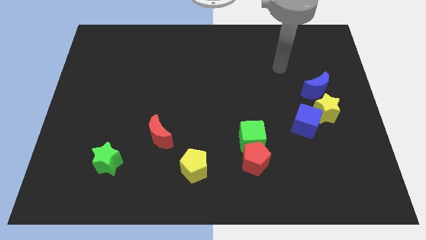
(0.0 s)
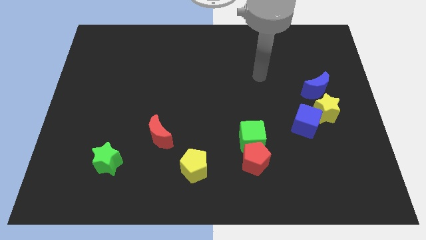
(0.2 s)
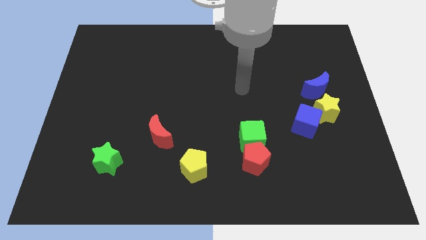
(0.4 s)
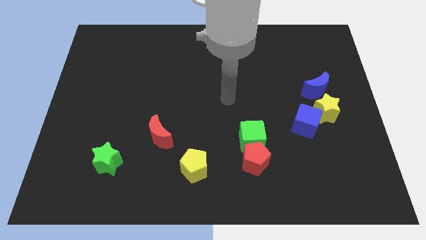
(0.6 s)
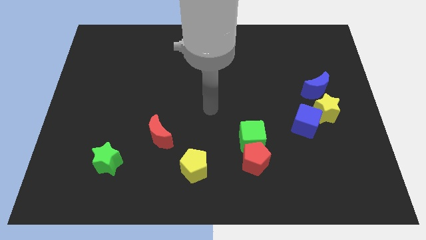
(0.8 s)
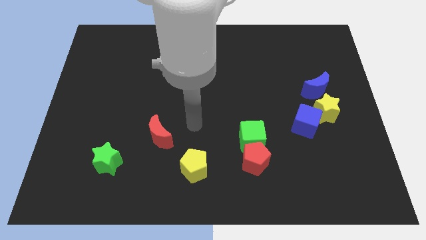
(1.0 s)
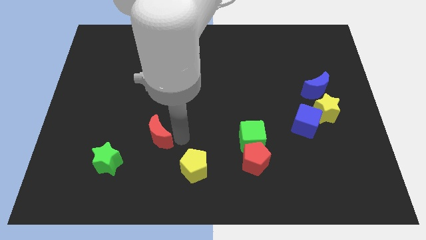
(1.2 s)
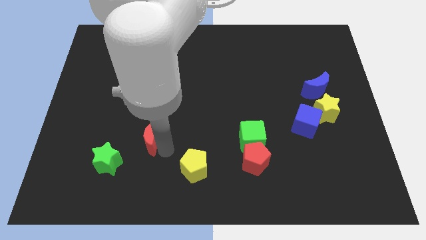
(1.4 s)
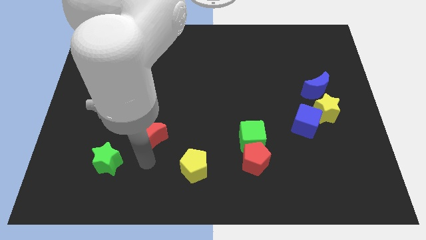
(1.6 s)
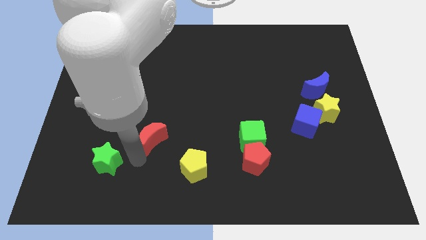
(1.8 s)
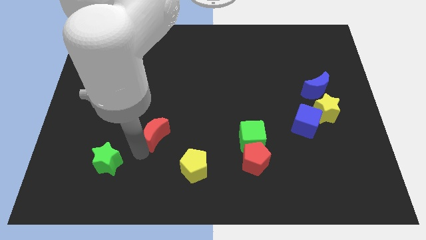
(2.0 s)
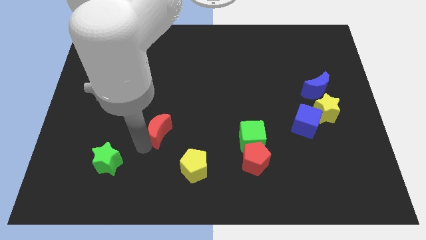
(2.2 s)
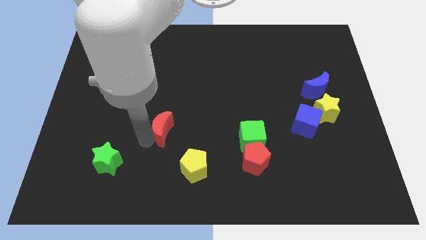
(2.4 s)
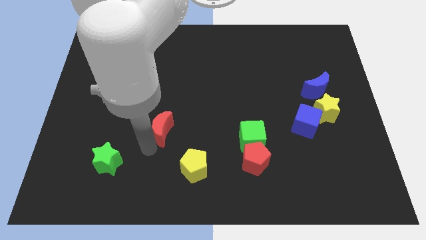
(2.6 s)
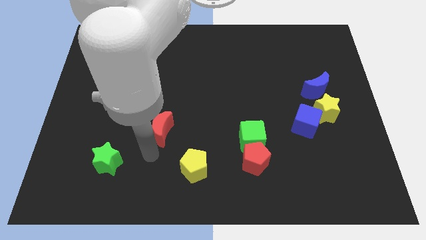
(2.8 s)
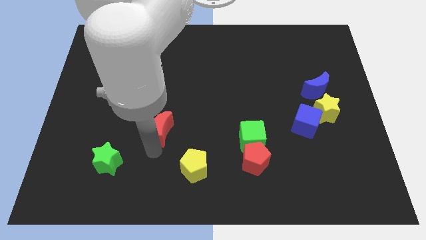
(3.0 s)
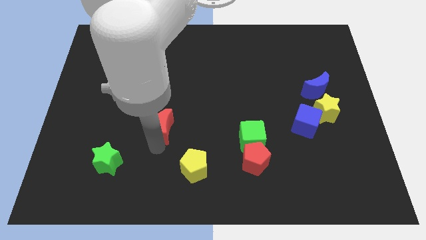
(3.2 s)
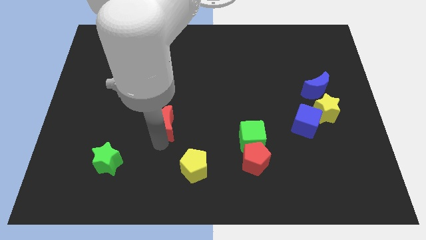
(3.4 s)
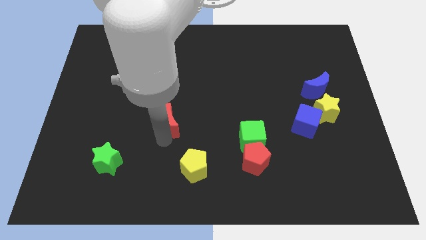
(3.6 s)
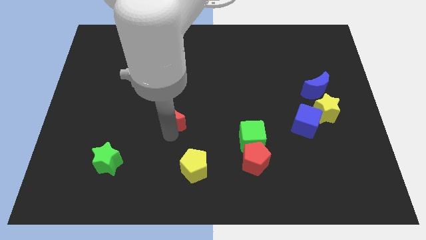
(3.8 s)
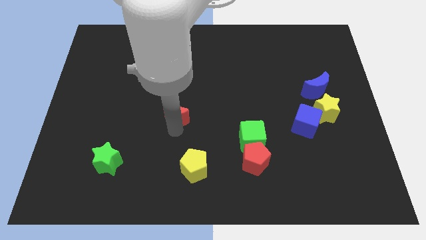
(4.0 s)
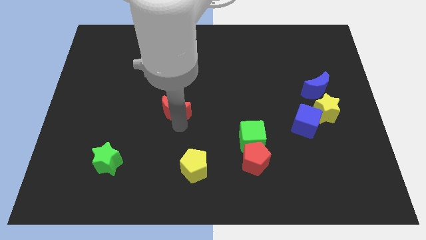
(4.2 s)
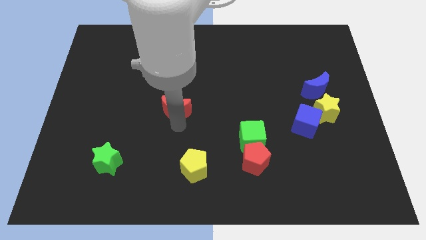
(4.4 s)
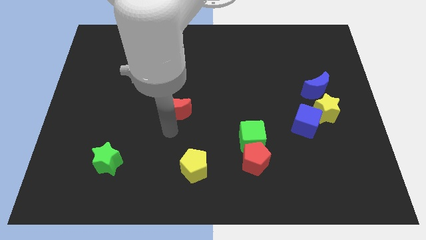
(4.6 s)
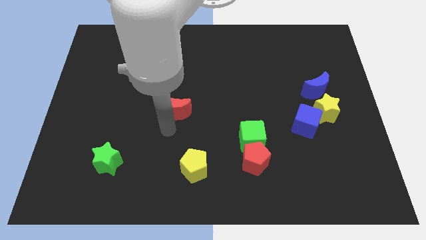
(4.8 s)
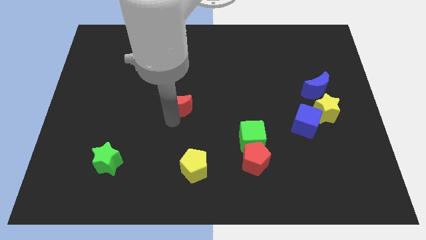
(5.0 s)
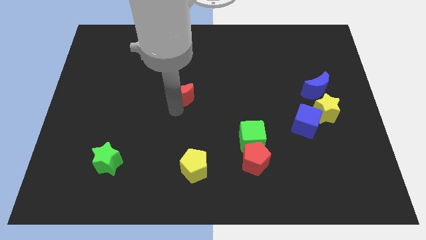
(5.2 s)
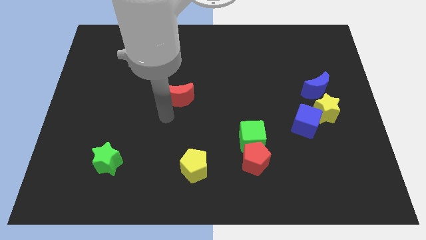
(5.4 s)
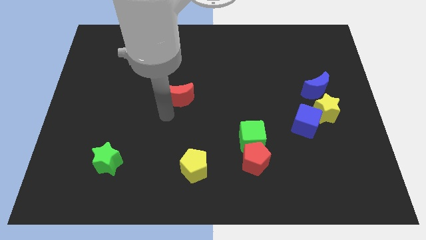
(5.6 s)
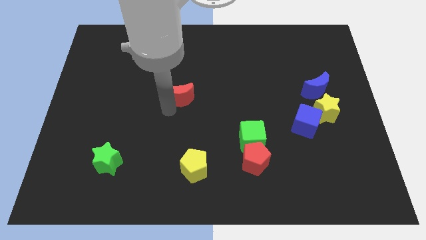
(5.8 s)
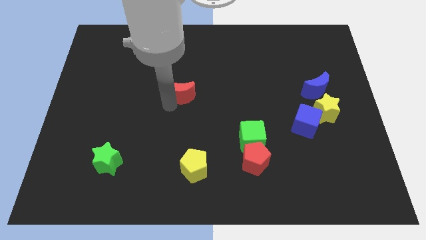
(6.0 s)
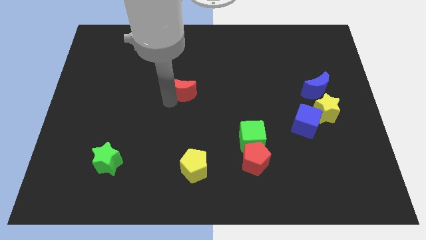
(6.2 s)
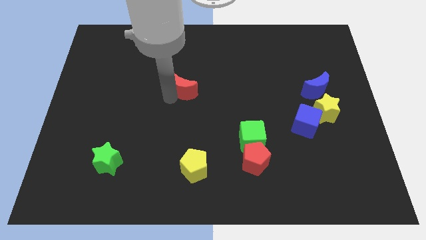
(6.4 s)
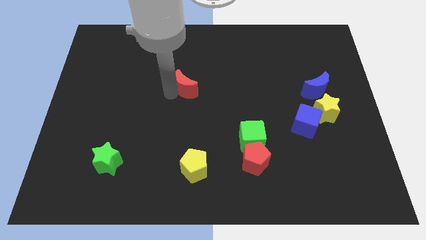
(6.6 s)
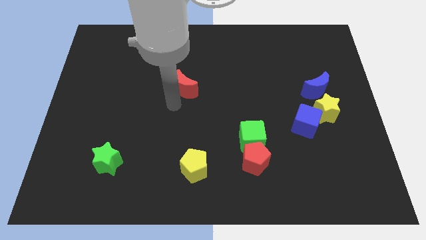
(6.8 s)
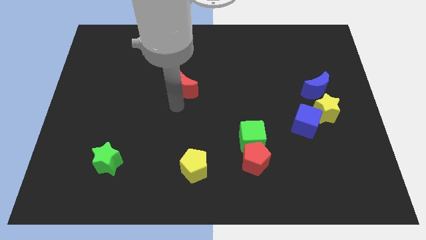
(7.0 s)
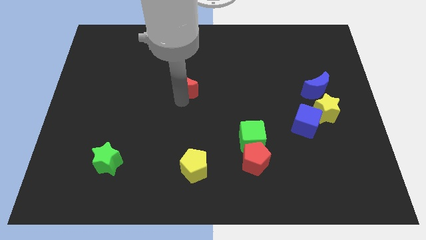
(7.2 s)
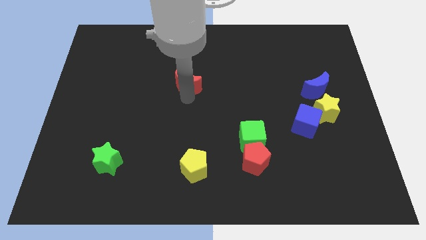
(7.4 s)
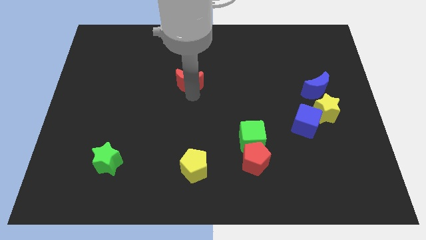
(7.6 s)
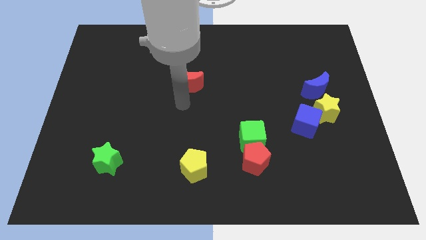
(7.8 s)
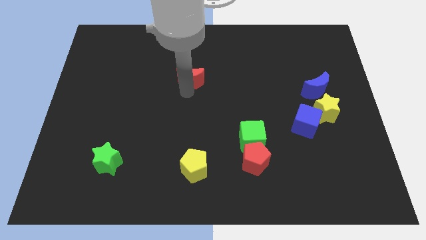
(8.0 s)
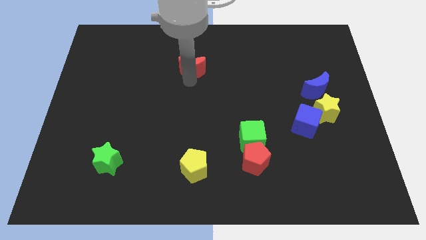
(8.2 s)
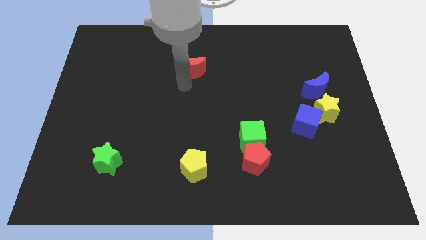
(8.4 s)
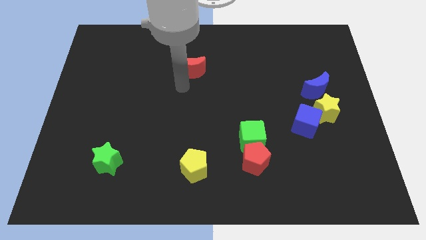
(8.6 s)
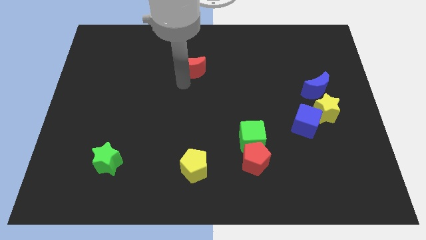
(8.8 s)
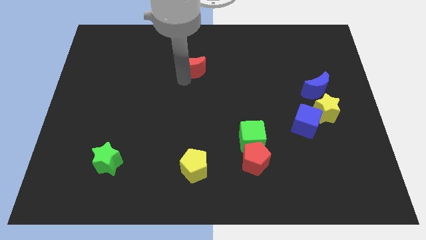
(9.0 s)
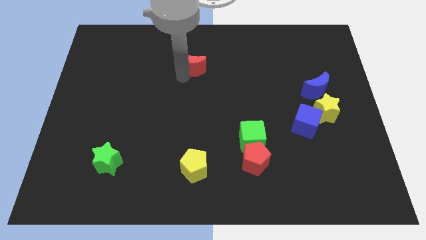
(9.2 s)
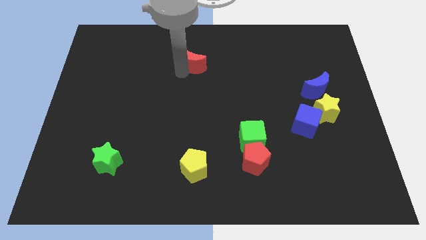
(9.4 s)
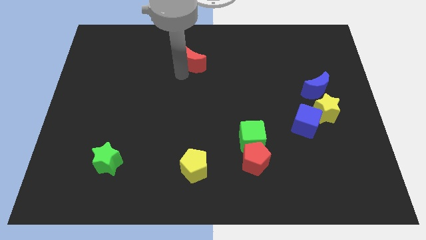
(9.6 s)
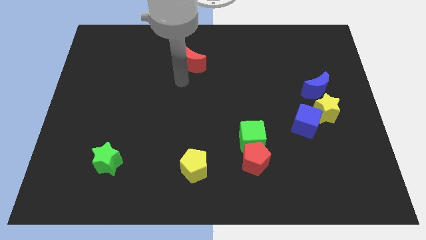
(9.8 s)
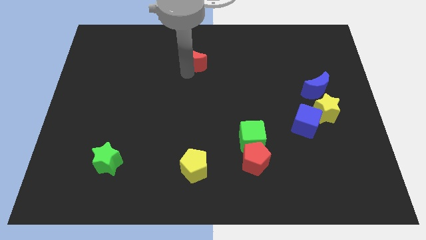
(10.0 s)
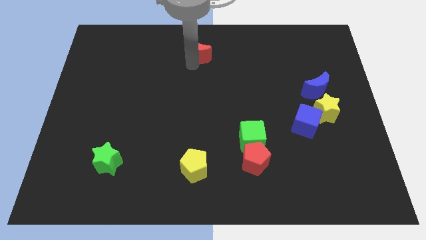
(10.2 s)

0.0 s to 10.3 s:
put the red moon to the top side

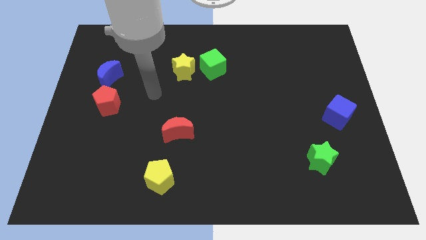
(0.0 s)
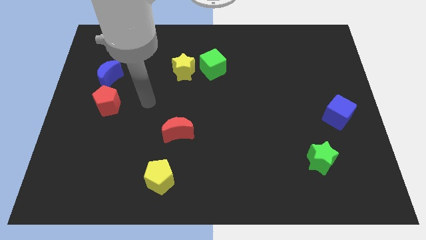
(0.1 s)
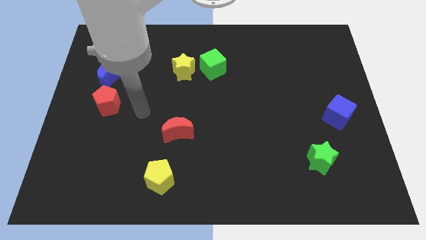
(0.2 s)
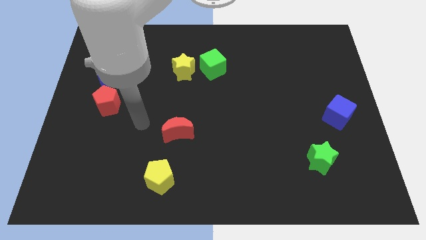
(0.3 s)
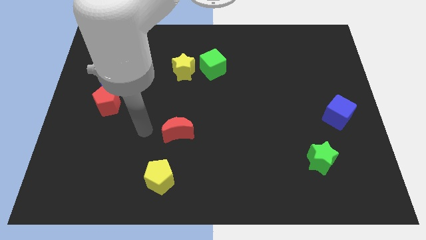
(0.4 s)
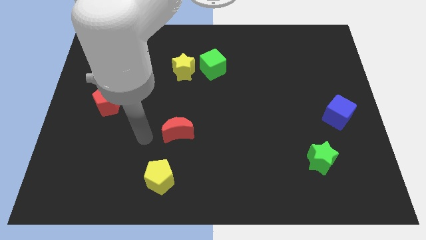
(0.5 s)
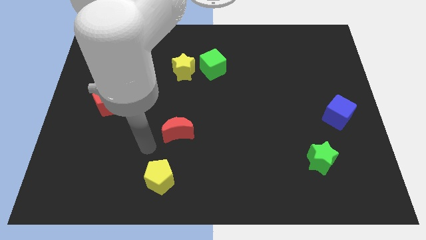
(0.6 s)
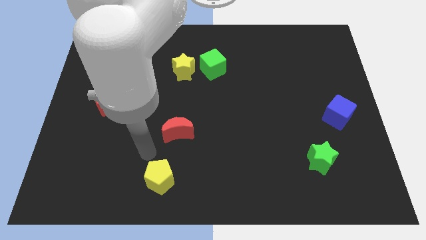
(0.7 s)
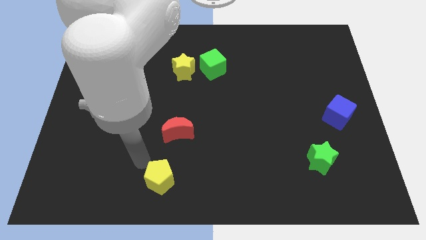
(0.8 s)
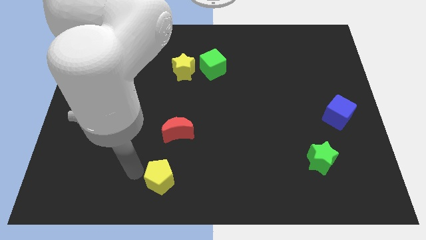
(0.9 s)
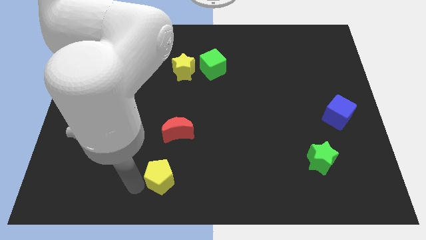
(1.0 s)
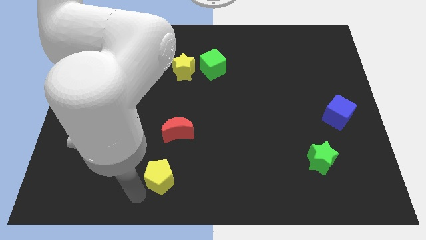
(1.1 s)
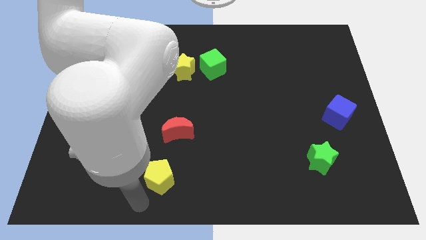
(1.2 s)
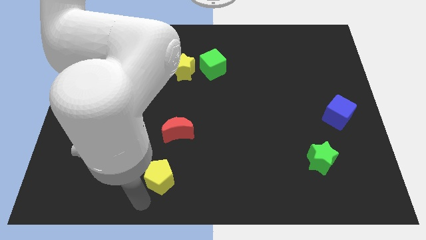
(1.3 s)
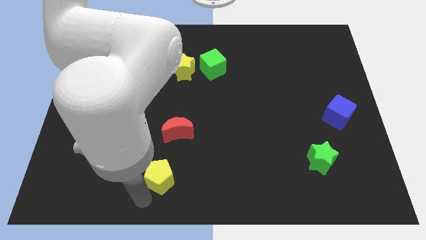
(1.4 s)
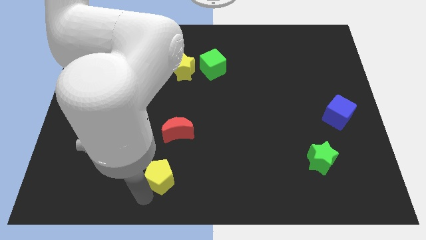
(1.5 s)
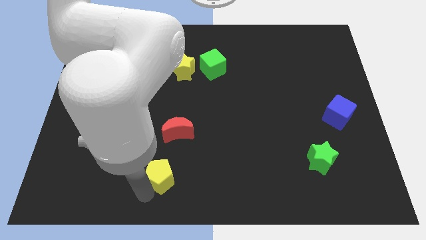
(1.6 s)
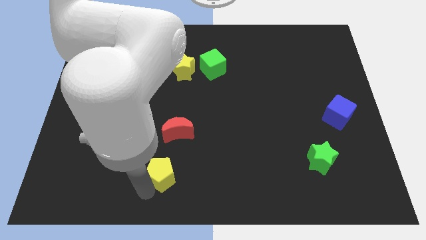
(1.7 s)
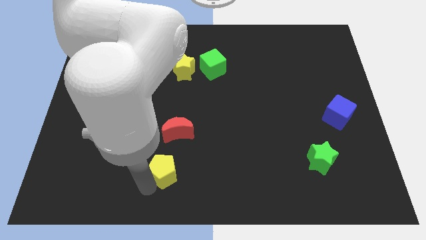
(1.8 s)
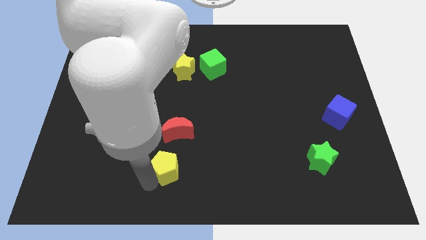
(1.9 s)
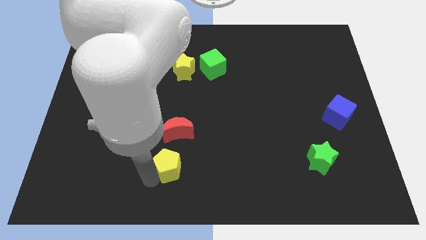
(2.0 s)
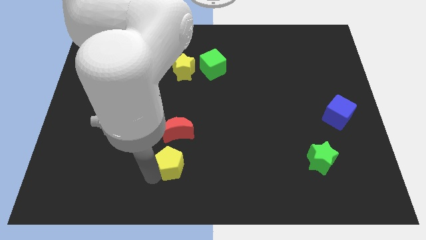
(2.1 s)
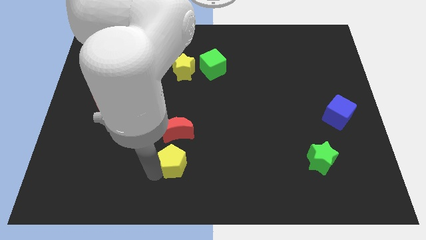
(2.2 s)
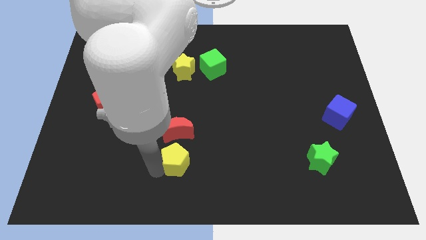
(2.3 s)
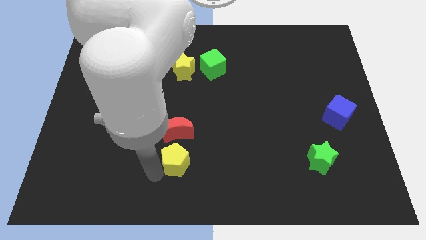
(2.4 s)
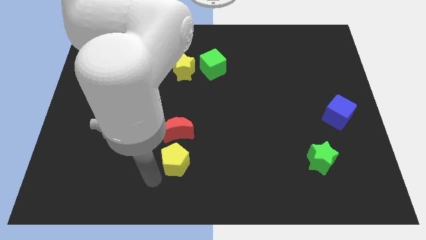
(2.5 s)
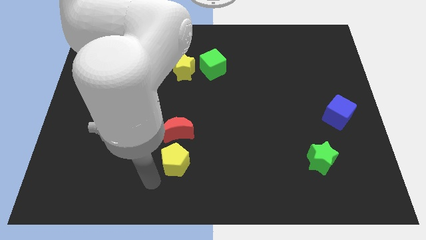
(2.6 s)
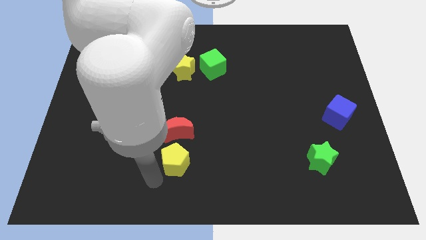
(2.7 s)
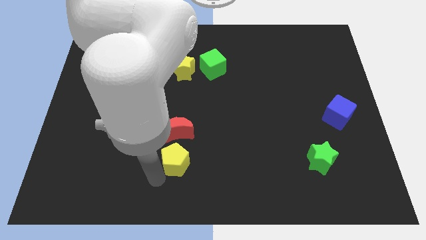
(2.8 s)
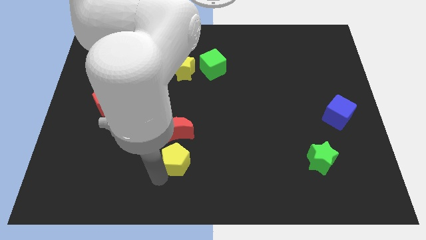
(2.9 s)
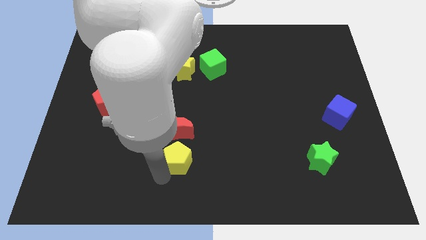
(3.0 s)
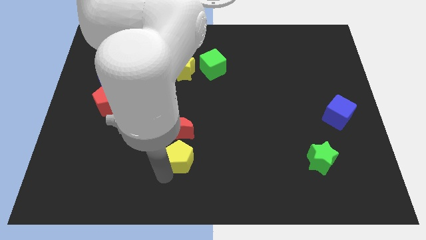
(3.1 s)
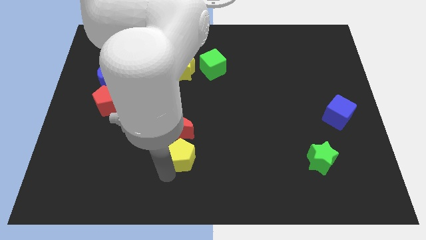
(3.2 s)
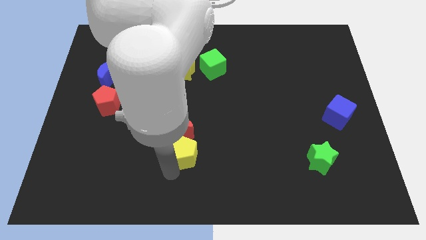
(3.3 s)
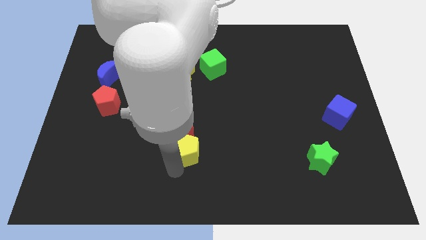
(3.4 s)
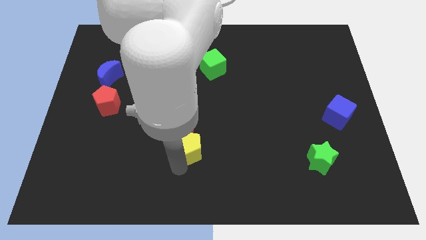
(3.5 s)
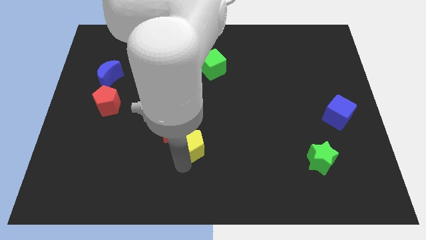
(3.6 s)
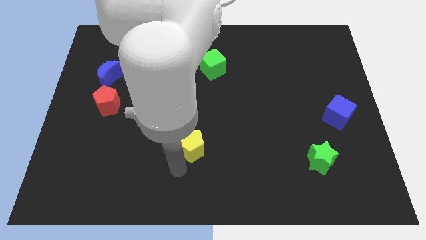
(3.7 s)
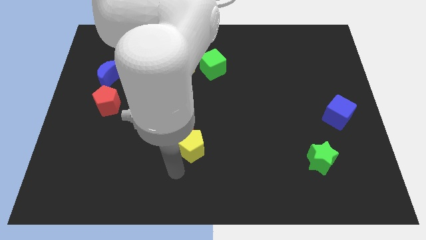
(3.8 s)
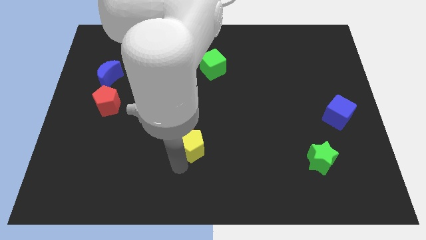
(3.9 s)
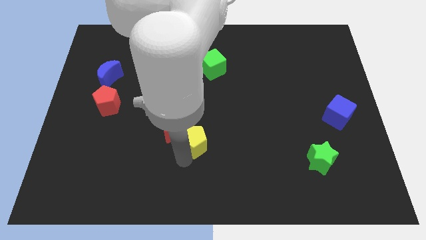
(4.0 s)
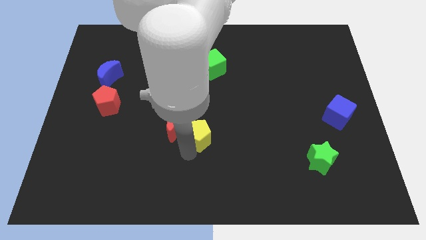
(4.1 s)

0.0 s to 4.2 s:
move the yellow pentagon to the center
